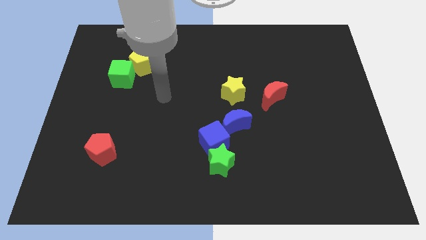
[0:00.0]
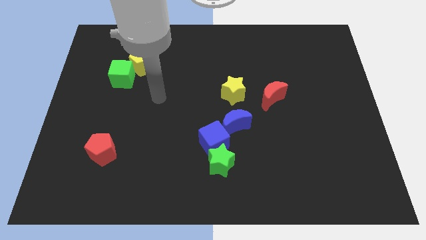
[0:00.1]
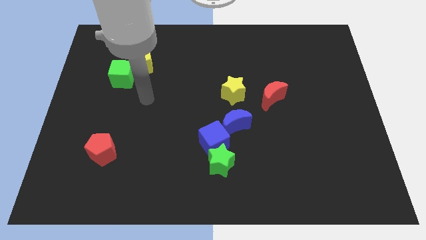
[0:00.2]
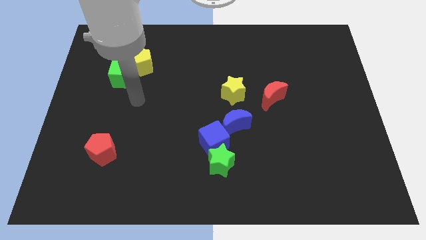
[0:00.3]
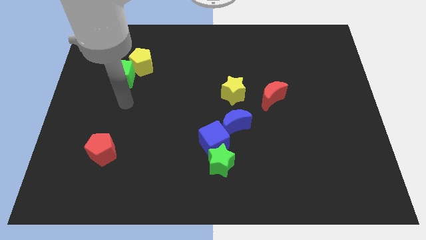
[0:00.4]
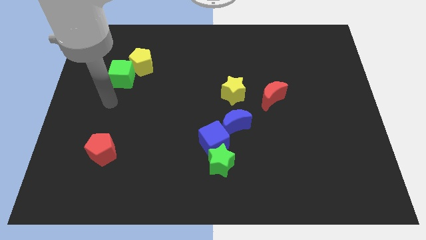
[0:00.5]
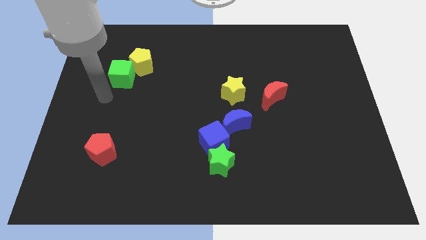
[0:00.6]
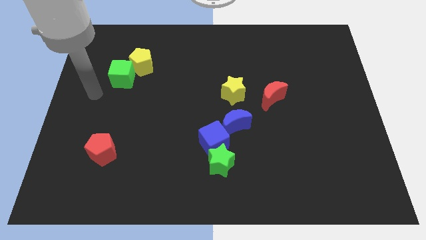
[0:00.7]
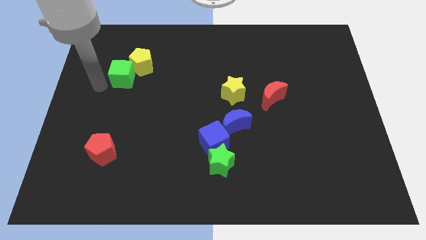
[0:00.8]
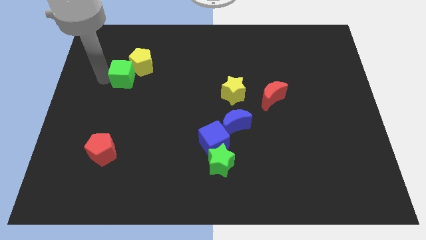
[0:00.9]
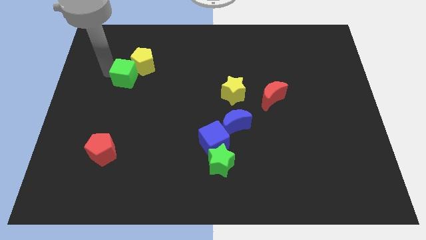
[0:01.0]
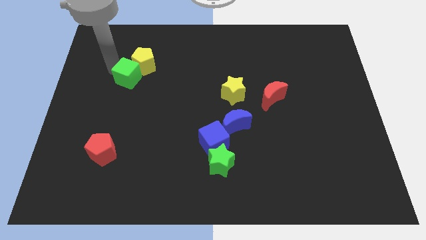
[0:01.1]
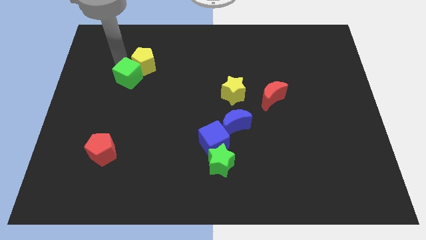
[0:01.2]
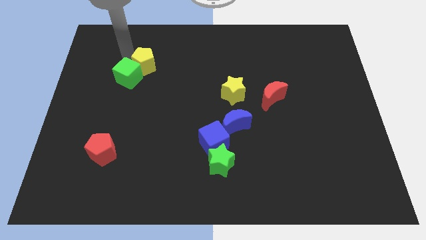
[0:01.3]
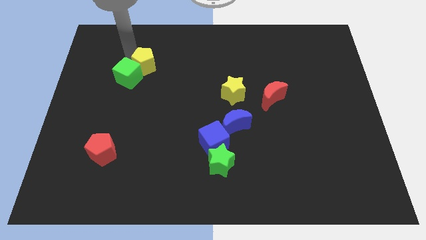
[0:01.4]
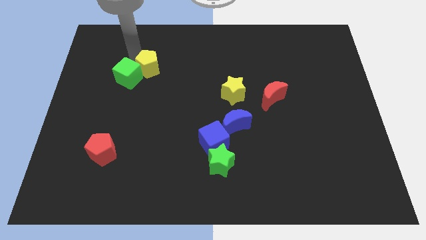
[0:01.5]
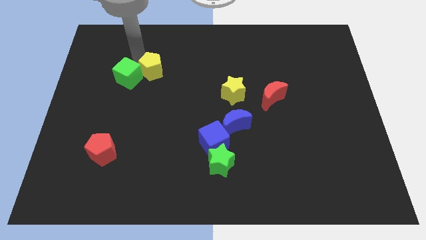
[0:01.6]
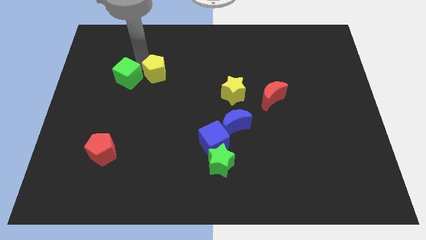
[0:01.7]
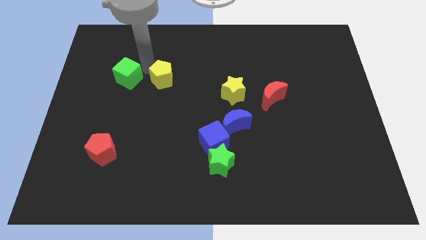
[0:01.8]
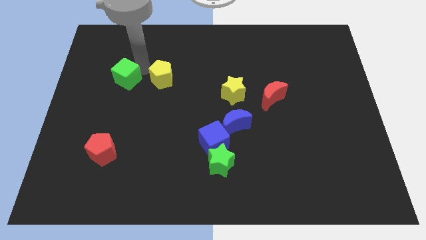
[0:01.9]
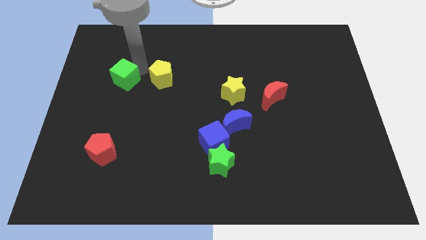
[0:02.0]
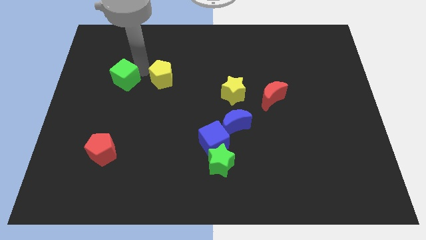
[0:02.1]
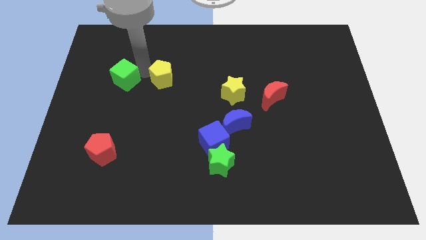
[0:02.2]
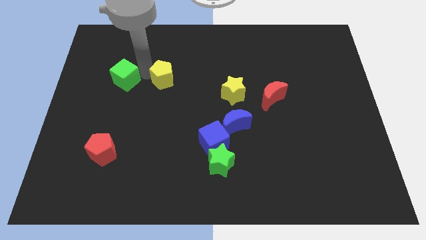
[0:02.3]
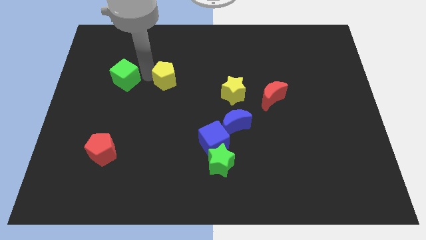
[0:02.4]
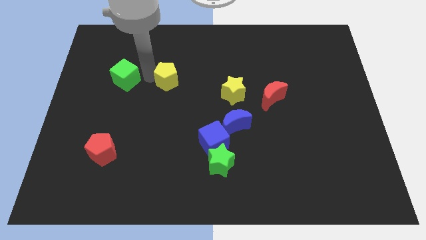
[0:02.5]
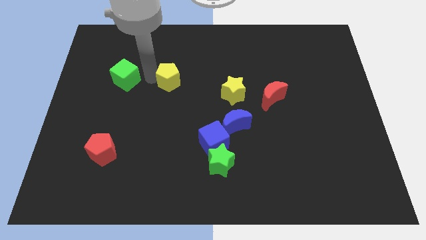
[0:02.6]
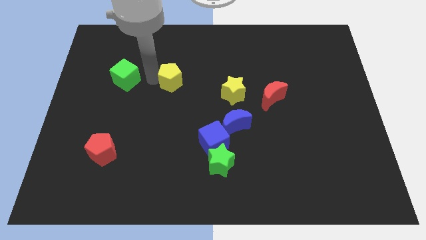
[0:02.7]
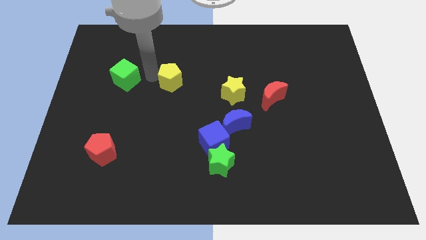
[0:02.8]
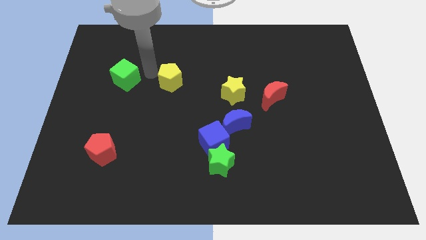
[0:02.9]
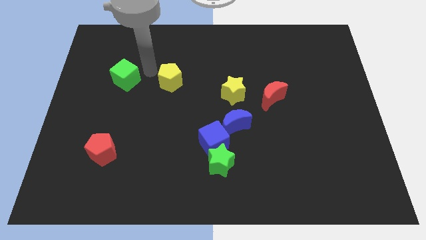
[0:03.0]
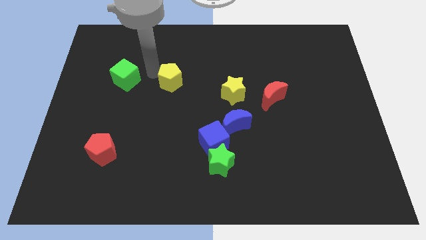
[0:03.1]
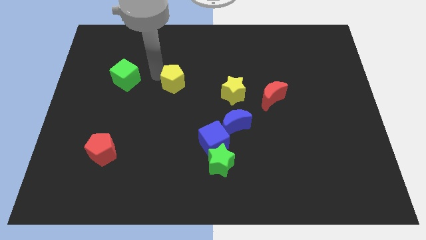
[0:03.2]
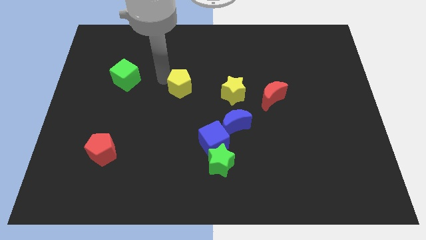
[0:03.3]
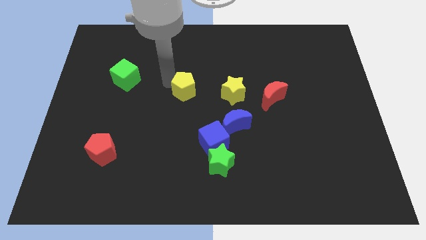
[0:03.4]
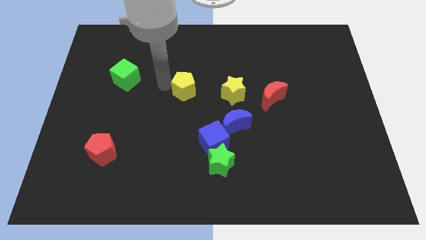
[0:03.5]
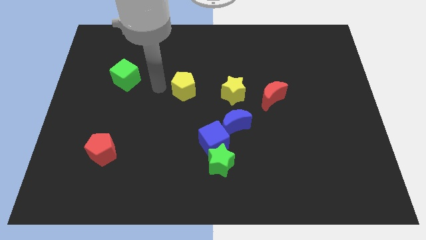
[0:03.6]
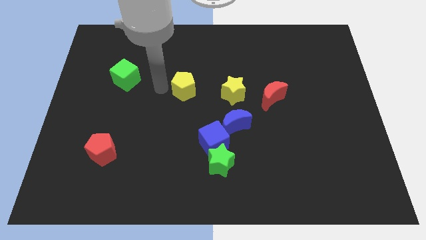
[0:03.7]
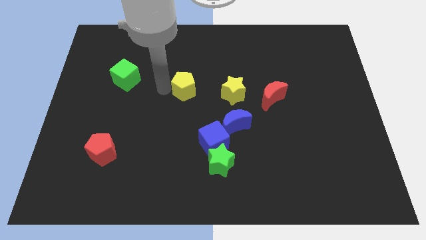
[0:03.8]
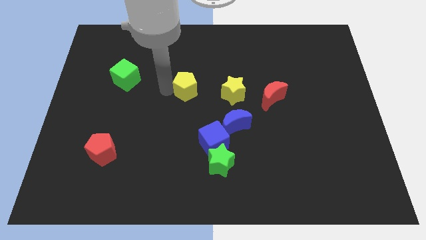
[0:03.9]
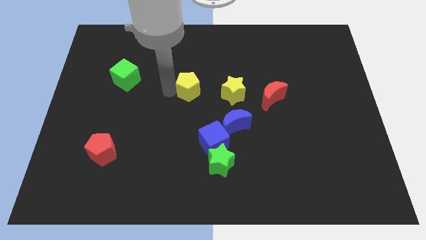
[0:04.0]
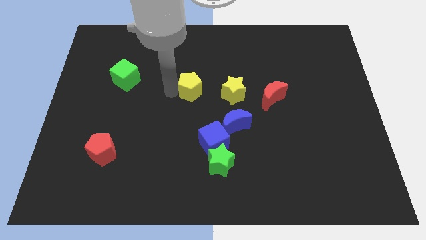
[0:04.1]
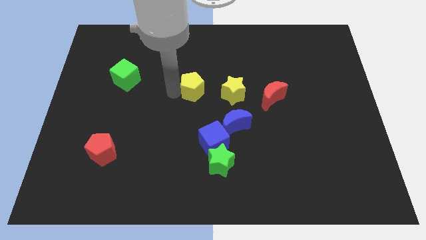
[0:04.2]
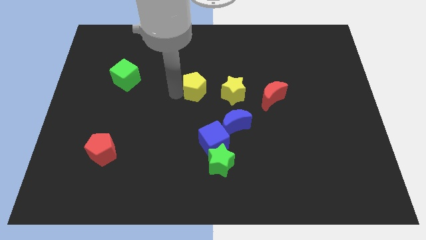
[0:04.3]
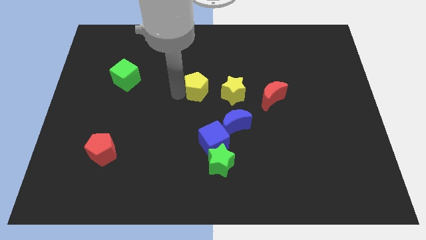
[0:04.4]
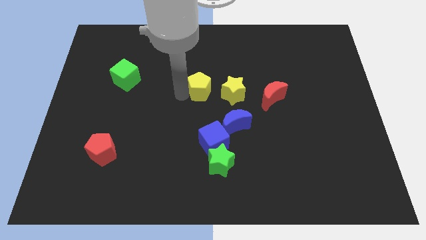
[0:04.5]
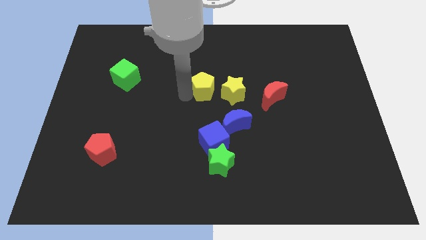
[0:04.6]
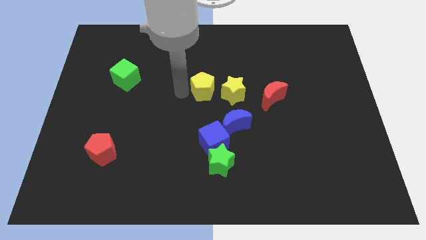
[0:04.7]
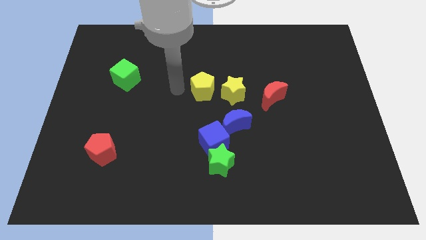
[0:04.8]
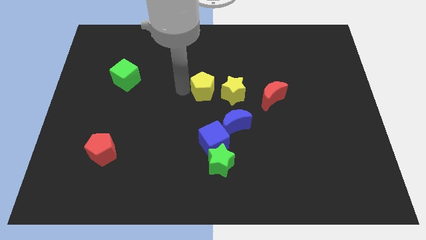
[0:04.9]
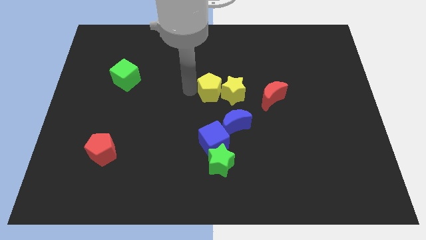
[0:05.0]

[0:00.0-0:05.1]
move the yellow pentagon next to the yellow star

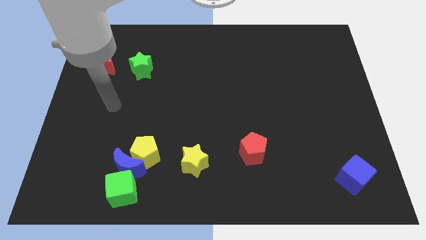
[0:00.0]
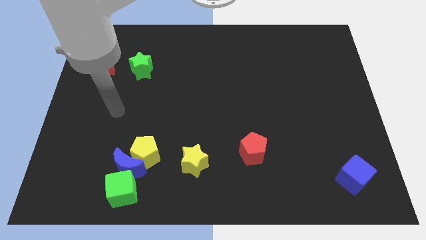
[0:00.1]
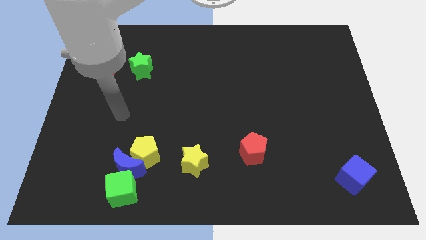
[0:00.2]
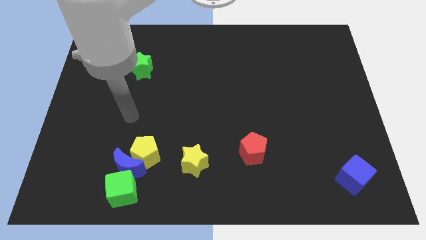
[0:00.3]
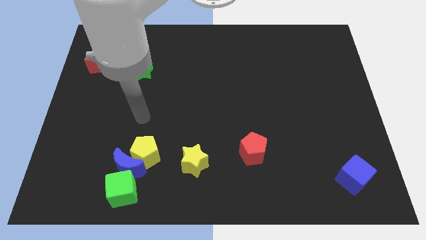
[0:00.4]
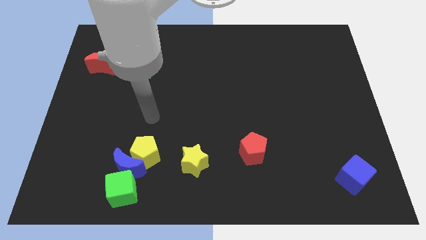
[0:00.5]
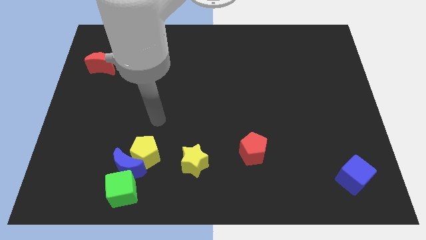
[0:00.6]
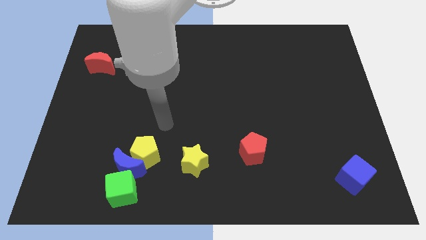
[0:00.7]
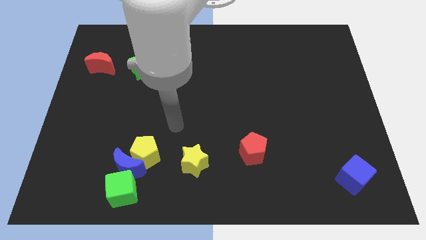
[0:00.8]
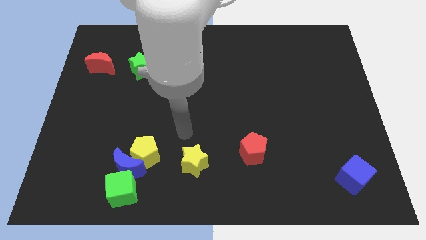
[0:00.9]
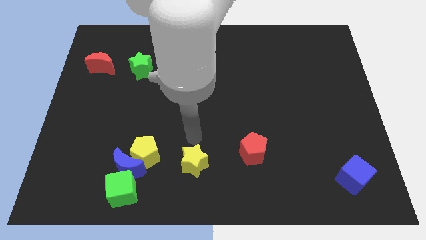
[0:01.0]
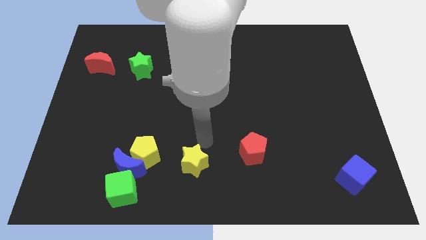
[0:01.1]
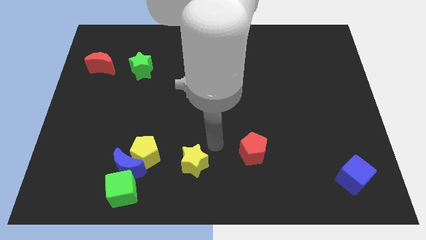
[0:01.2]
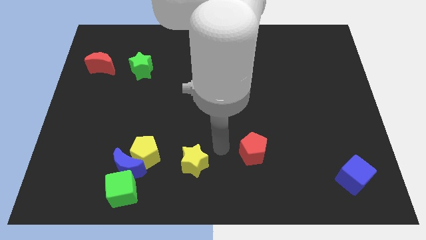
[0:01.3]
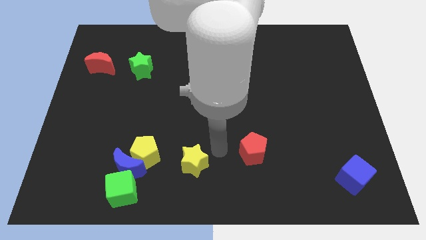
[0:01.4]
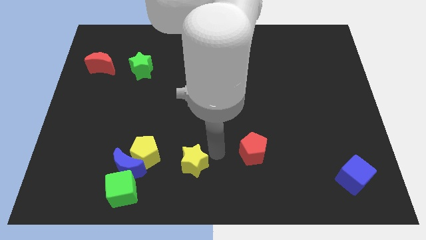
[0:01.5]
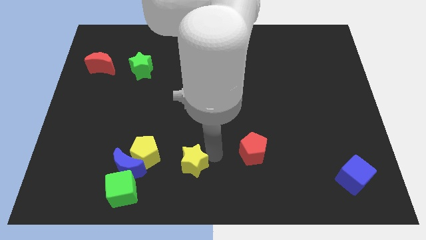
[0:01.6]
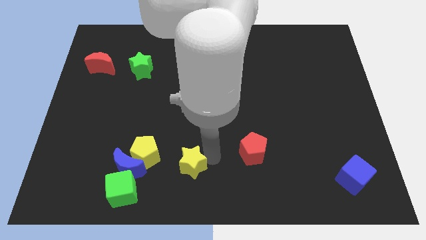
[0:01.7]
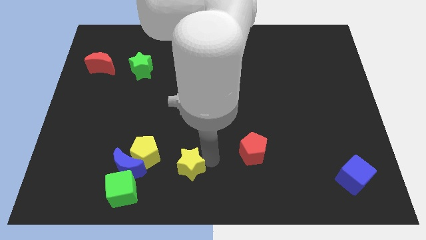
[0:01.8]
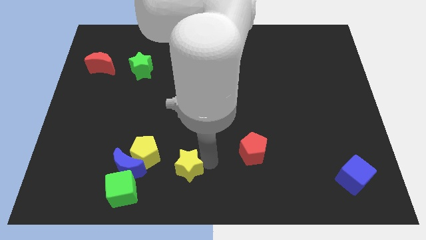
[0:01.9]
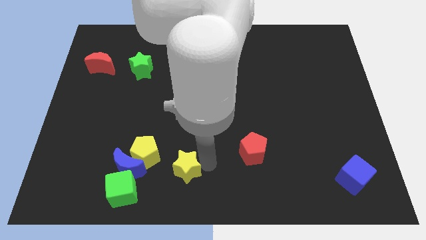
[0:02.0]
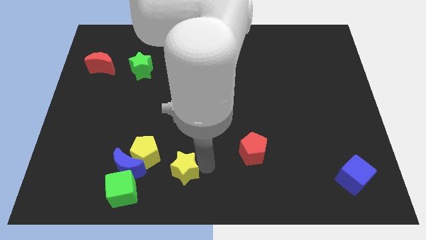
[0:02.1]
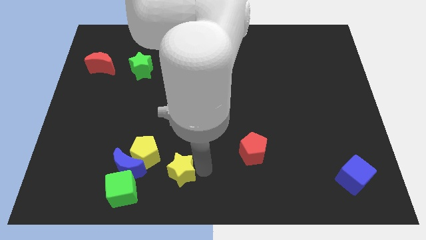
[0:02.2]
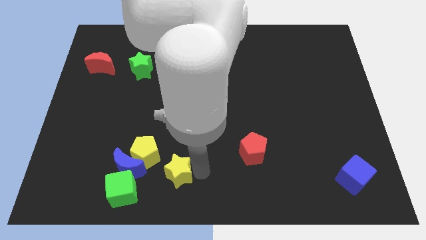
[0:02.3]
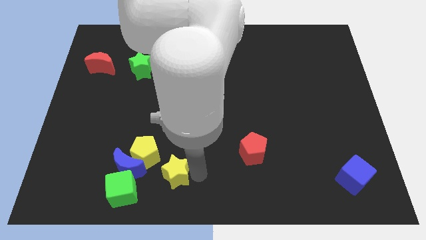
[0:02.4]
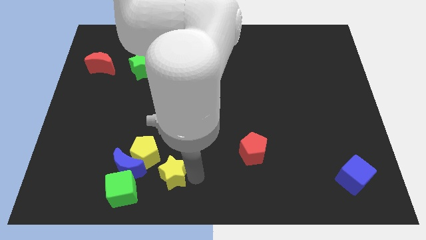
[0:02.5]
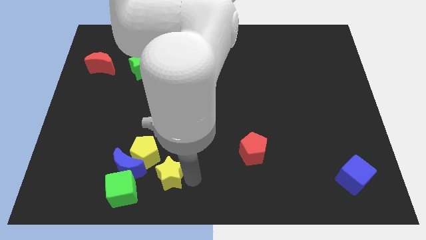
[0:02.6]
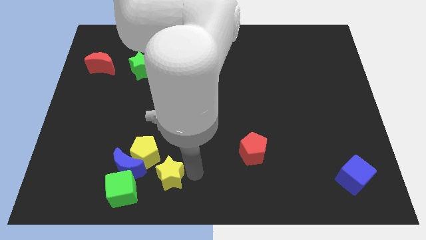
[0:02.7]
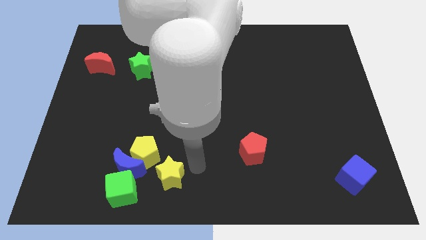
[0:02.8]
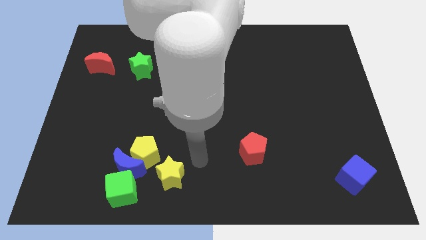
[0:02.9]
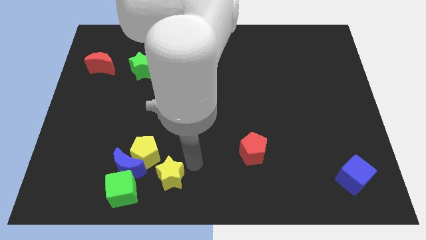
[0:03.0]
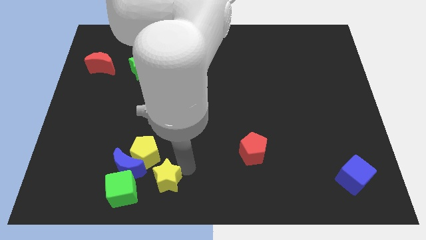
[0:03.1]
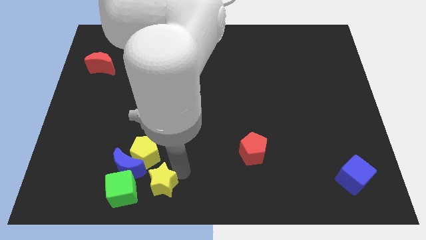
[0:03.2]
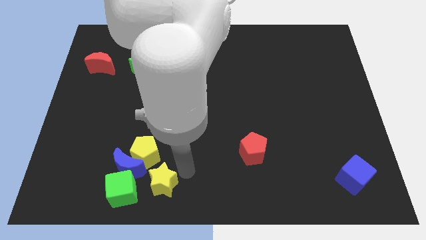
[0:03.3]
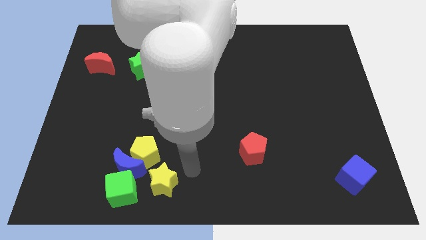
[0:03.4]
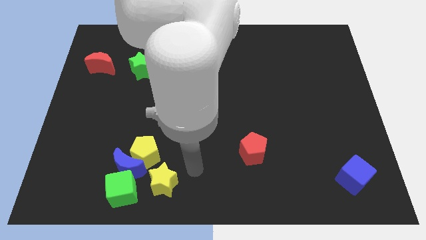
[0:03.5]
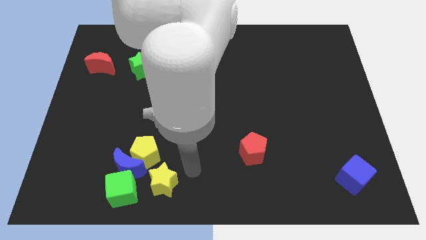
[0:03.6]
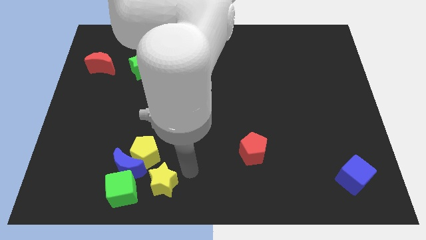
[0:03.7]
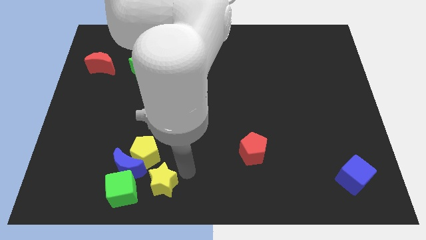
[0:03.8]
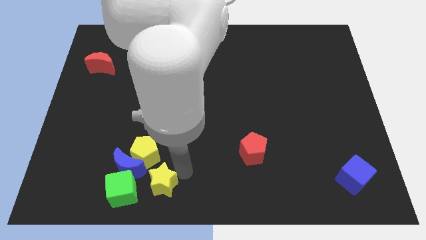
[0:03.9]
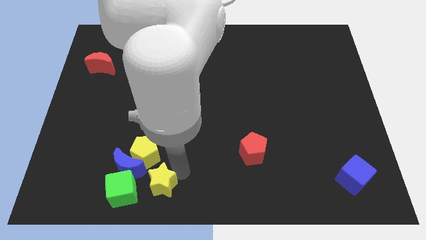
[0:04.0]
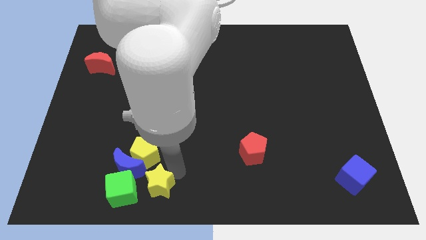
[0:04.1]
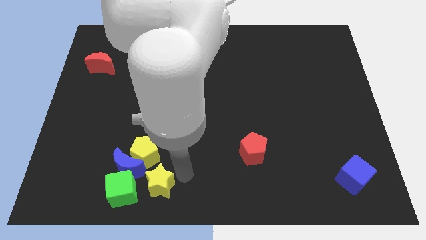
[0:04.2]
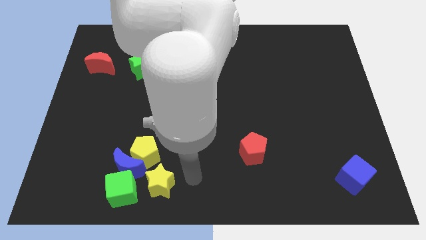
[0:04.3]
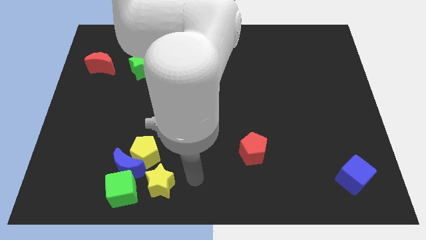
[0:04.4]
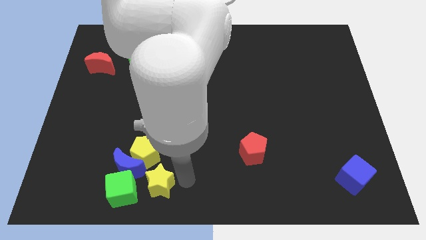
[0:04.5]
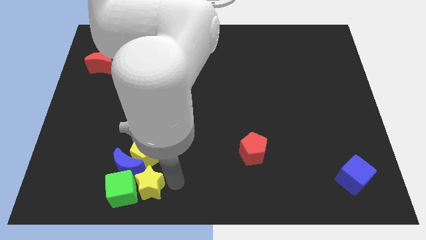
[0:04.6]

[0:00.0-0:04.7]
move the yellow star towards the green cube
